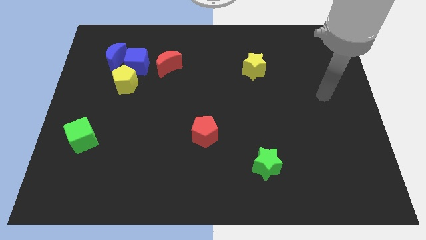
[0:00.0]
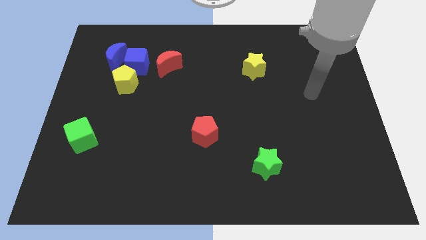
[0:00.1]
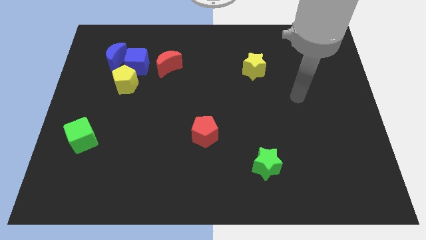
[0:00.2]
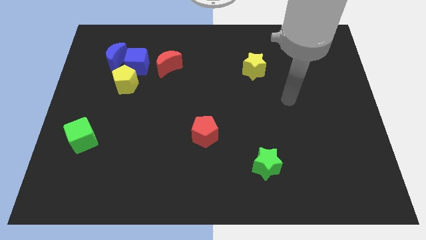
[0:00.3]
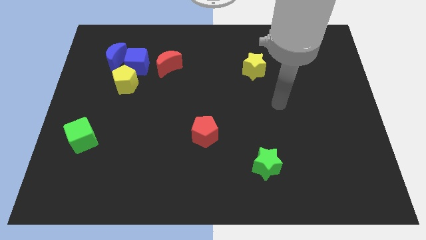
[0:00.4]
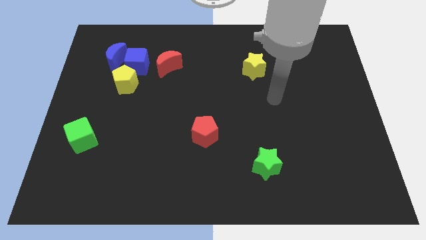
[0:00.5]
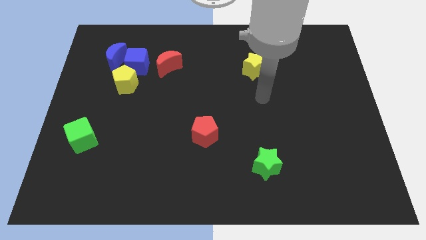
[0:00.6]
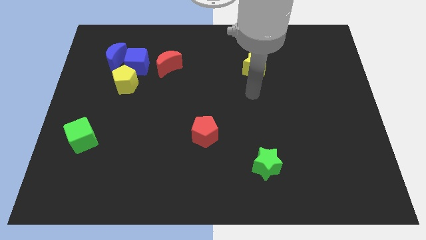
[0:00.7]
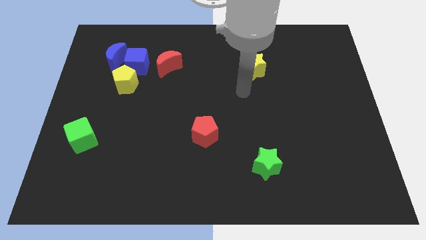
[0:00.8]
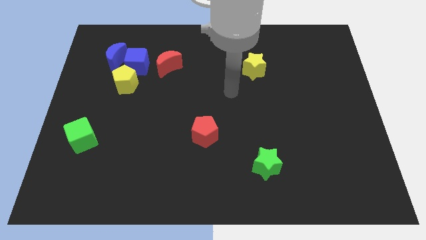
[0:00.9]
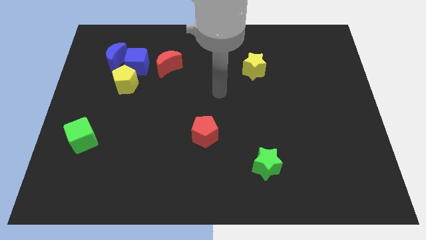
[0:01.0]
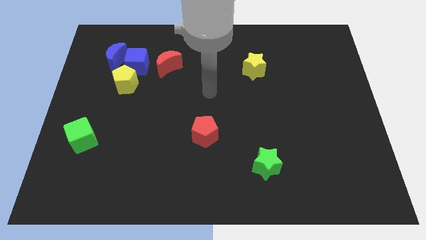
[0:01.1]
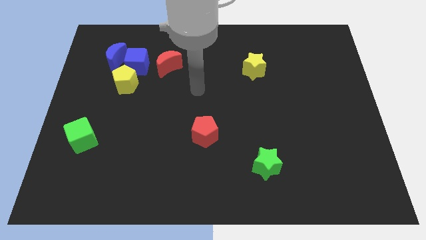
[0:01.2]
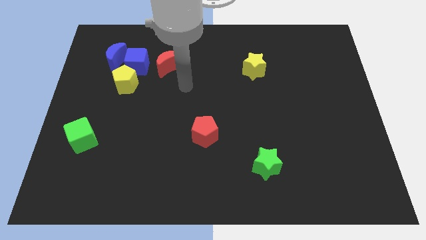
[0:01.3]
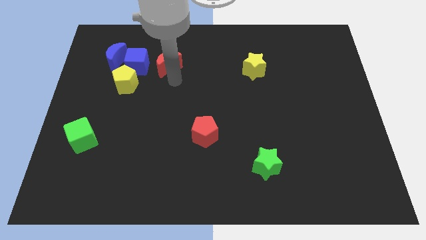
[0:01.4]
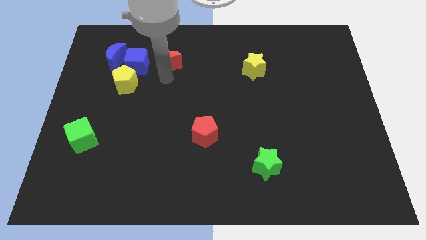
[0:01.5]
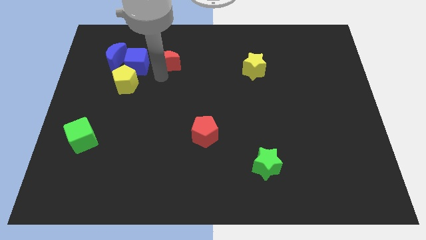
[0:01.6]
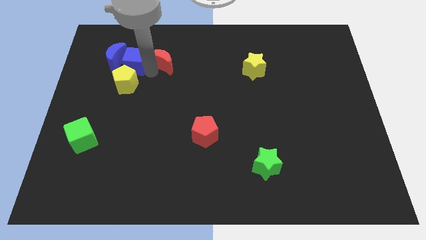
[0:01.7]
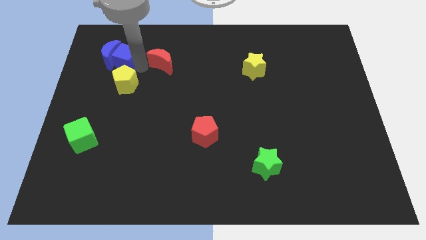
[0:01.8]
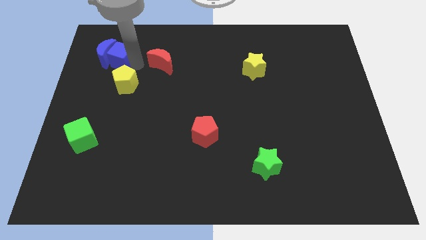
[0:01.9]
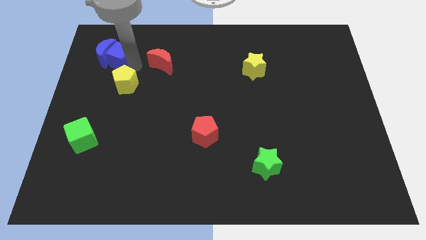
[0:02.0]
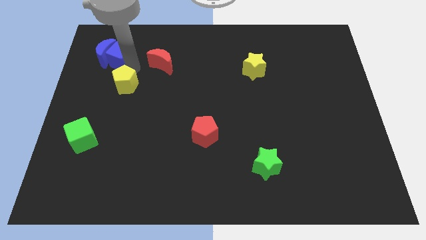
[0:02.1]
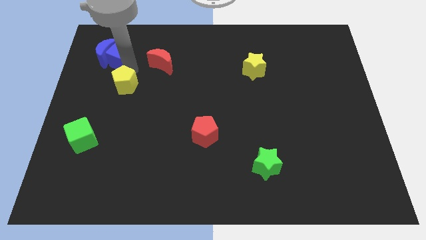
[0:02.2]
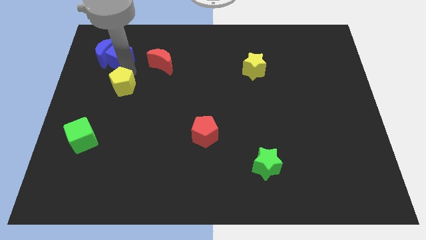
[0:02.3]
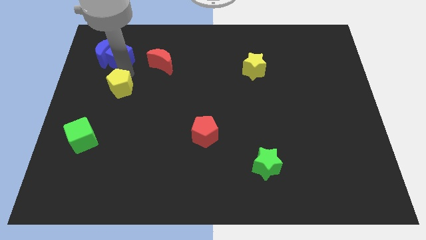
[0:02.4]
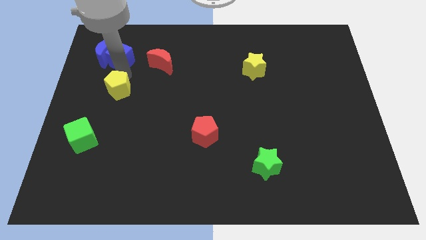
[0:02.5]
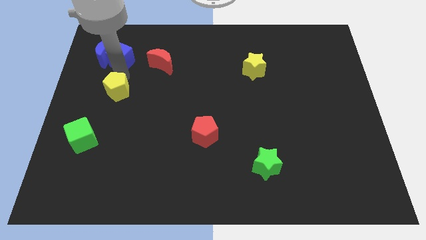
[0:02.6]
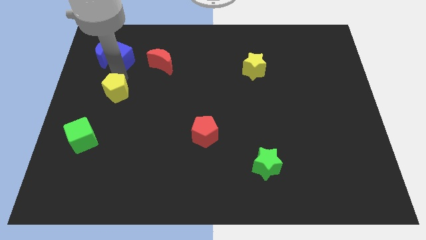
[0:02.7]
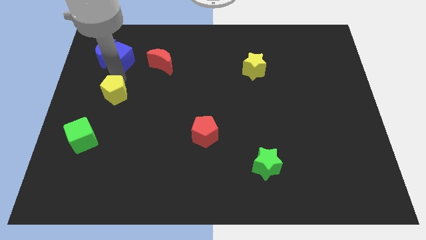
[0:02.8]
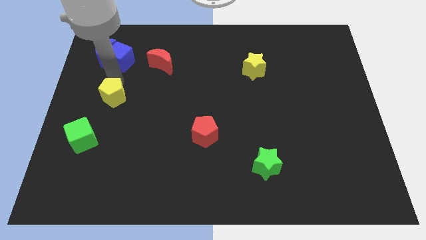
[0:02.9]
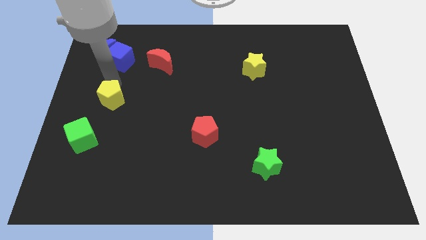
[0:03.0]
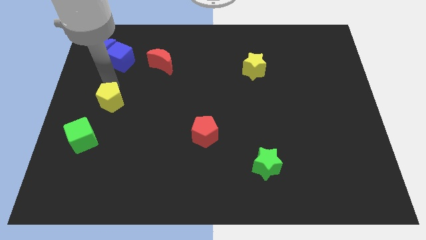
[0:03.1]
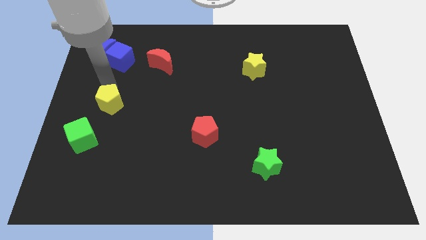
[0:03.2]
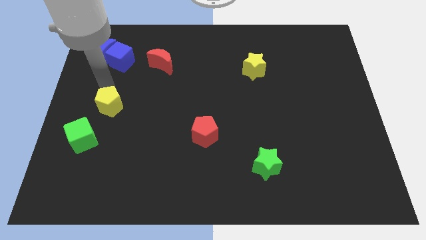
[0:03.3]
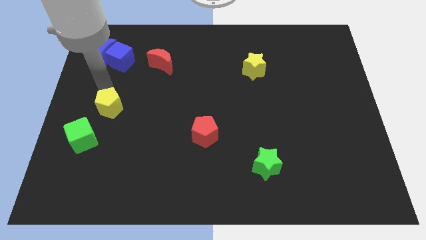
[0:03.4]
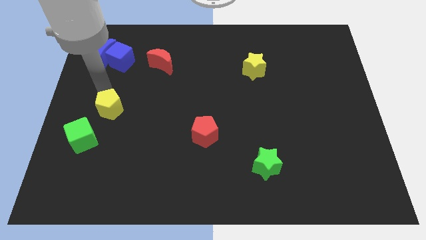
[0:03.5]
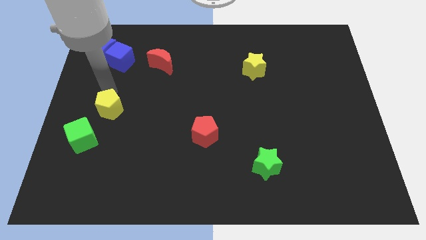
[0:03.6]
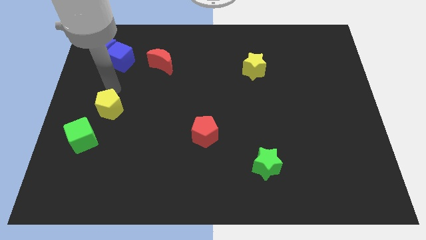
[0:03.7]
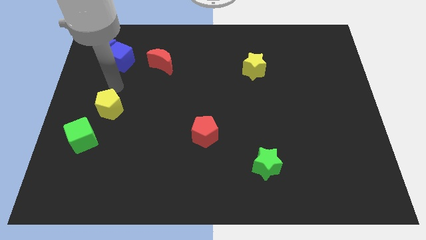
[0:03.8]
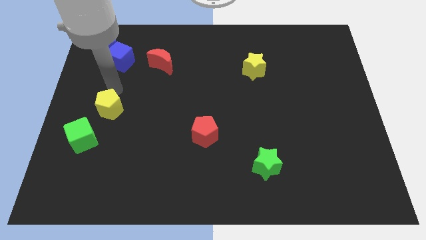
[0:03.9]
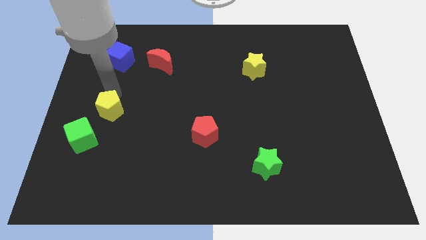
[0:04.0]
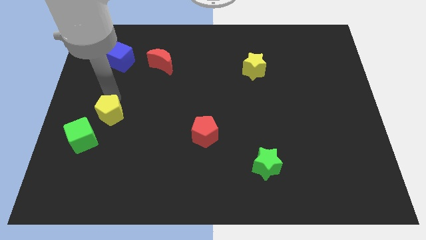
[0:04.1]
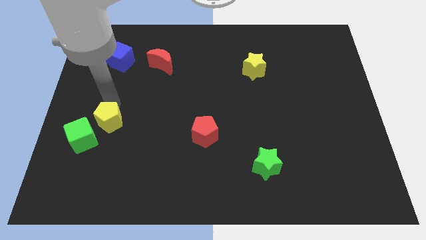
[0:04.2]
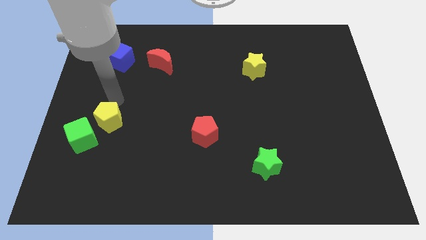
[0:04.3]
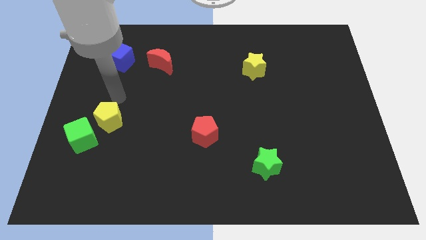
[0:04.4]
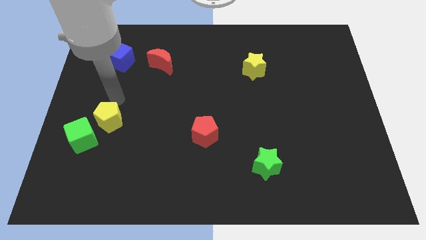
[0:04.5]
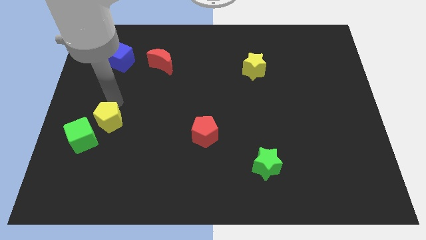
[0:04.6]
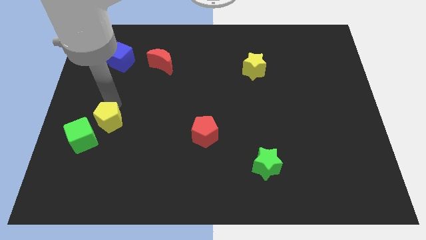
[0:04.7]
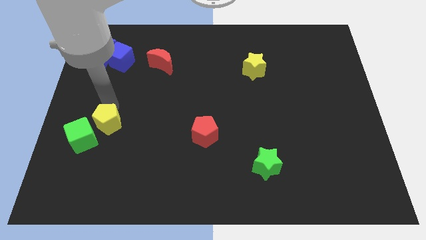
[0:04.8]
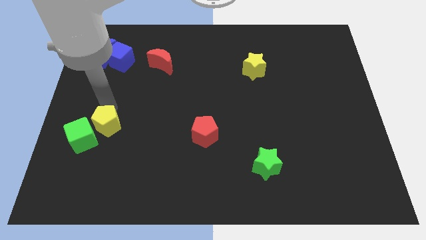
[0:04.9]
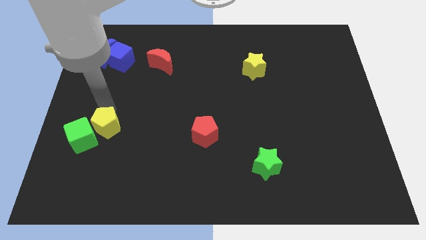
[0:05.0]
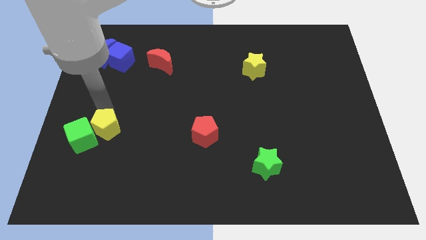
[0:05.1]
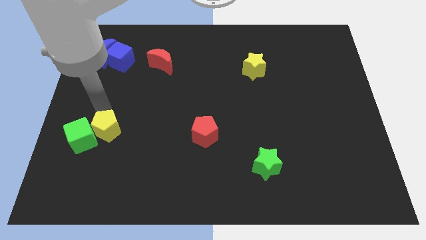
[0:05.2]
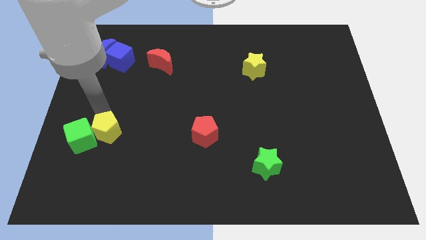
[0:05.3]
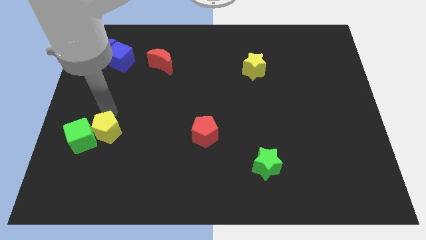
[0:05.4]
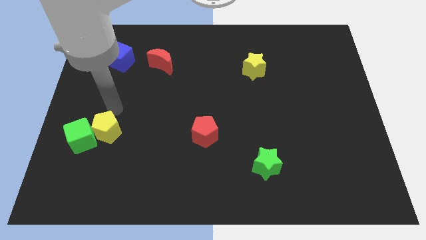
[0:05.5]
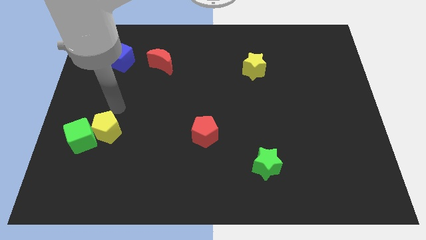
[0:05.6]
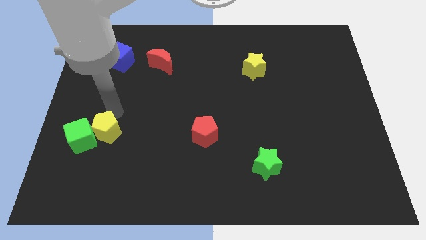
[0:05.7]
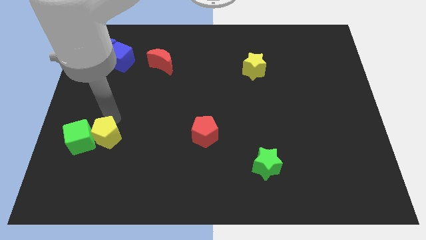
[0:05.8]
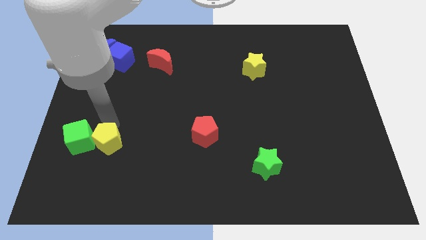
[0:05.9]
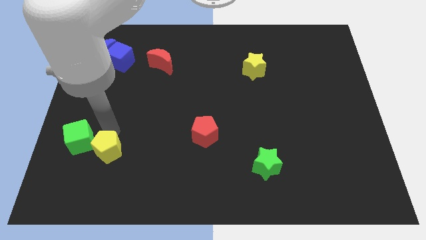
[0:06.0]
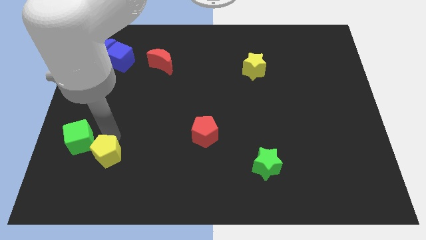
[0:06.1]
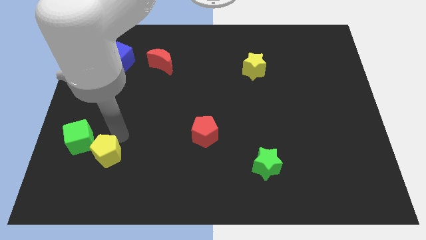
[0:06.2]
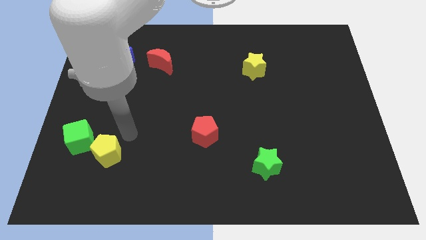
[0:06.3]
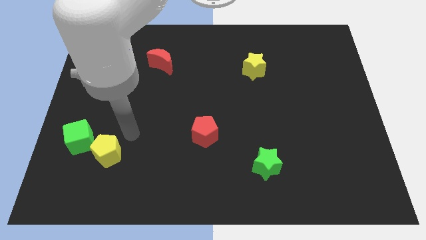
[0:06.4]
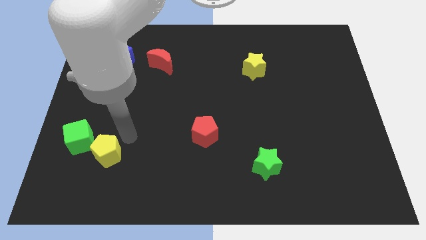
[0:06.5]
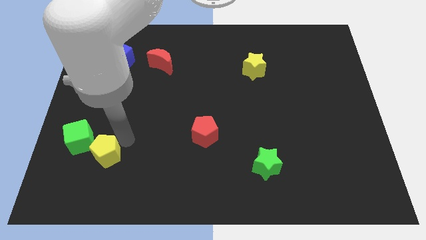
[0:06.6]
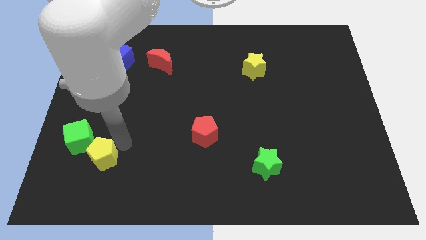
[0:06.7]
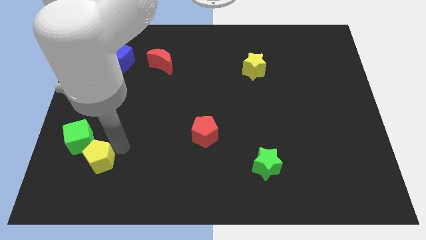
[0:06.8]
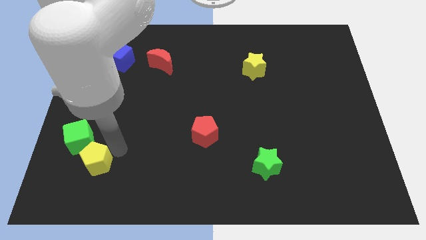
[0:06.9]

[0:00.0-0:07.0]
put the yellow pentagon to the bottom side of the green cube
